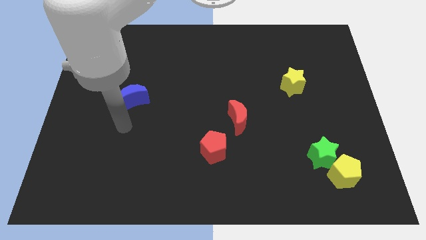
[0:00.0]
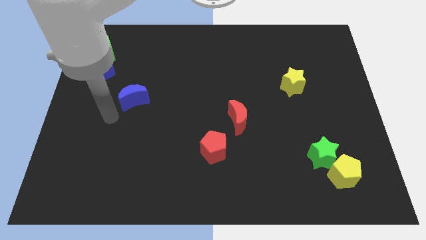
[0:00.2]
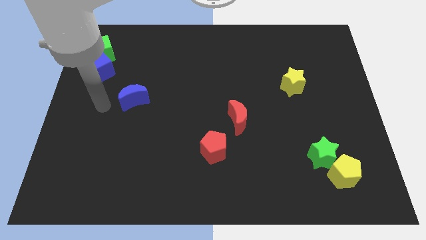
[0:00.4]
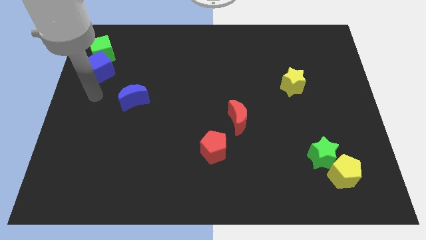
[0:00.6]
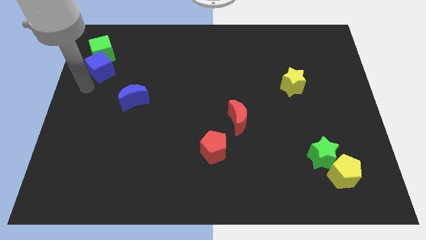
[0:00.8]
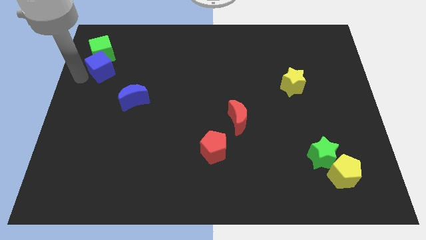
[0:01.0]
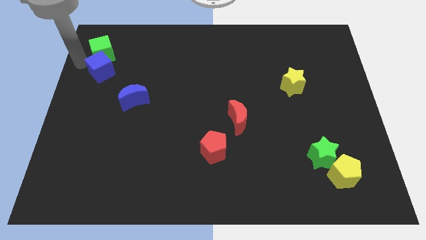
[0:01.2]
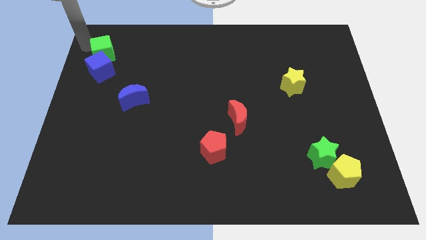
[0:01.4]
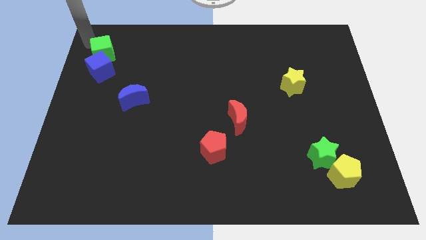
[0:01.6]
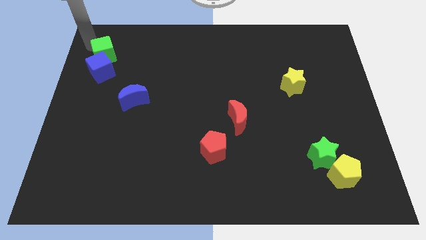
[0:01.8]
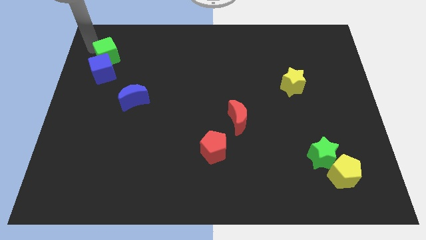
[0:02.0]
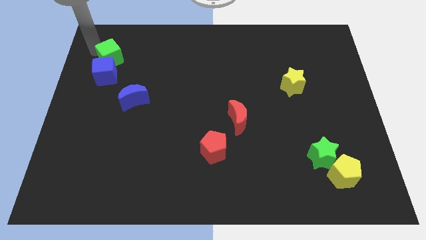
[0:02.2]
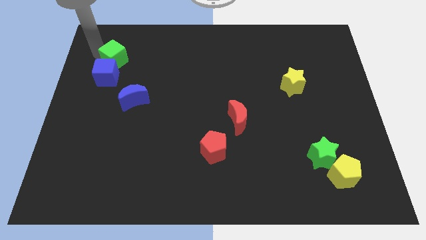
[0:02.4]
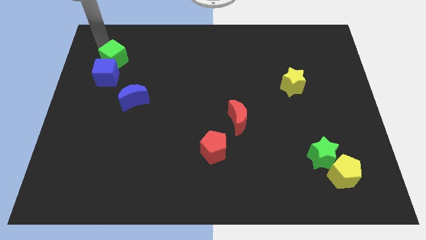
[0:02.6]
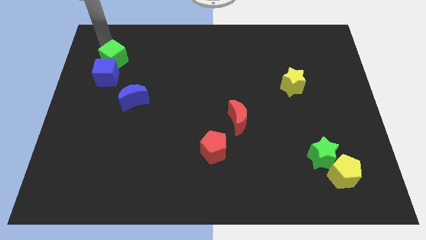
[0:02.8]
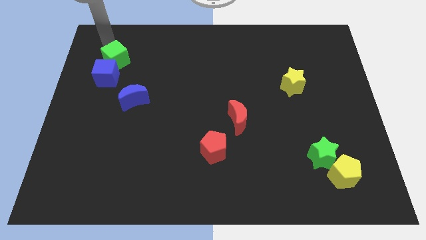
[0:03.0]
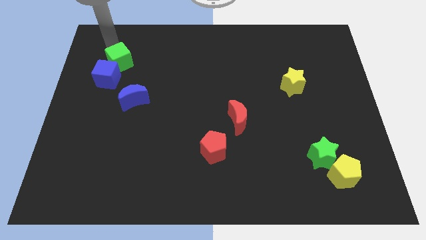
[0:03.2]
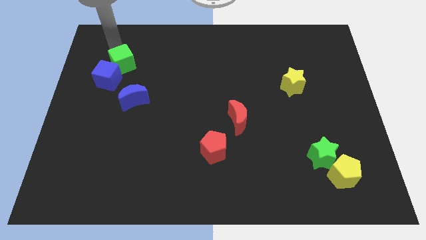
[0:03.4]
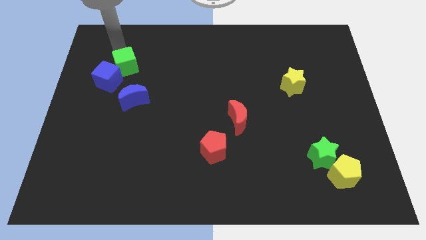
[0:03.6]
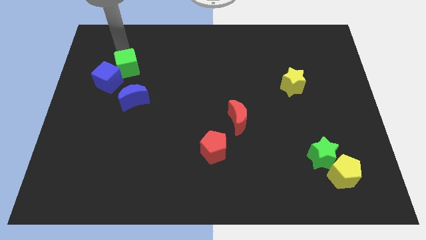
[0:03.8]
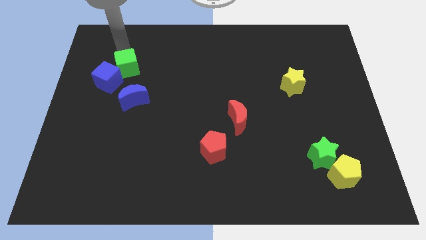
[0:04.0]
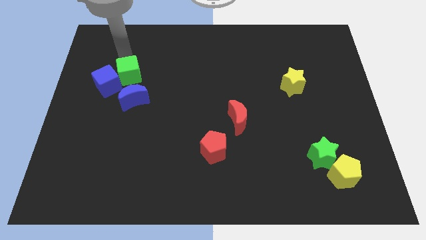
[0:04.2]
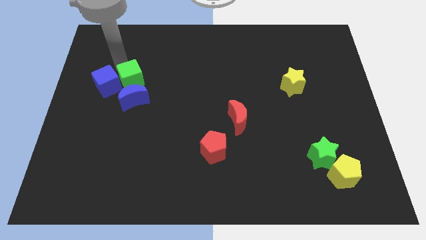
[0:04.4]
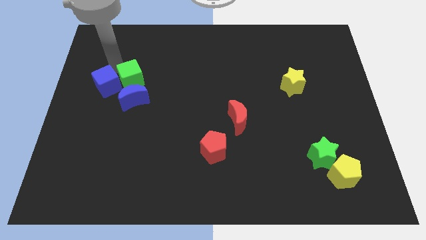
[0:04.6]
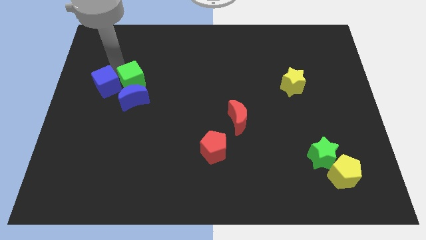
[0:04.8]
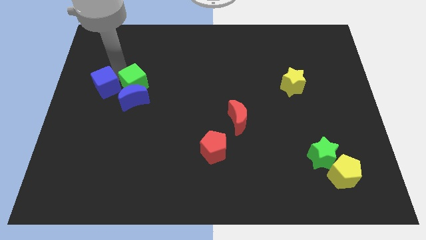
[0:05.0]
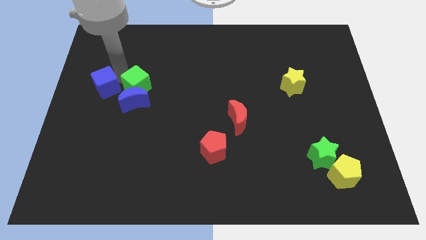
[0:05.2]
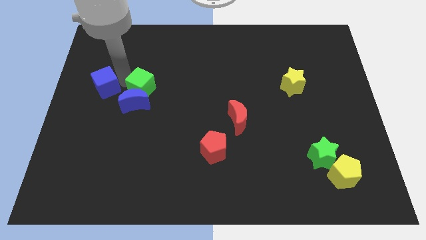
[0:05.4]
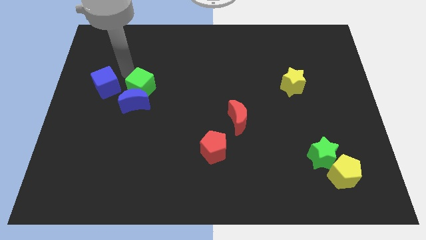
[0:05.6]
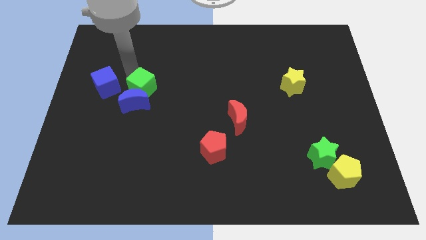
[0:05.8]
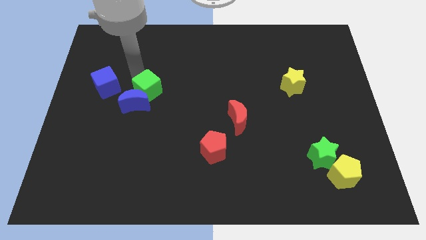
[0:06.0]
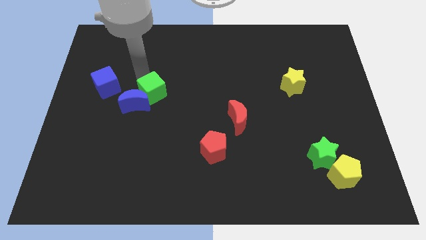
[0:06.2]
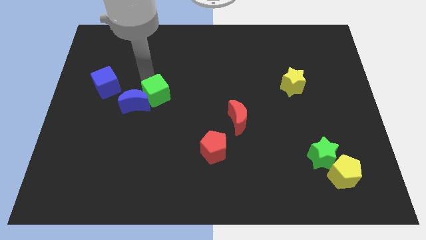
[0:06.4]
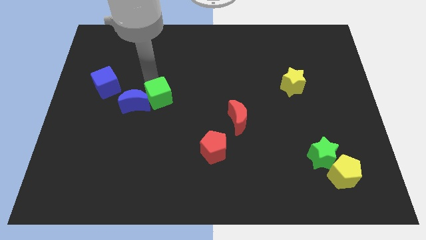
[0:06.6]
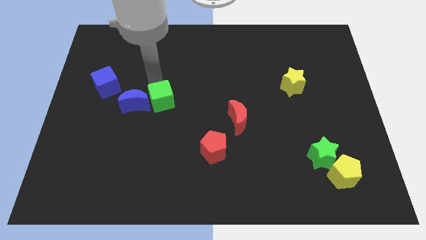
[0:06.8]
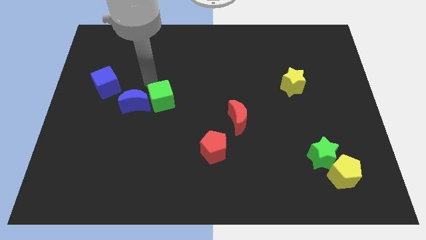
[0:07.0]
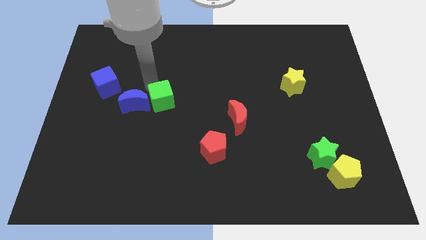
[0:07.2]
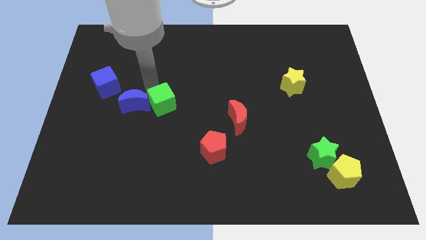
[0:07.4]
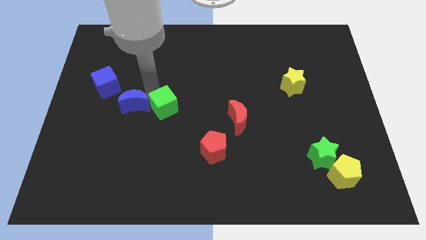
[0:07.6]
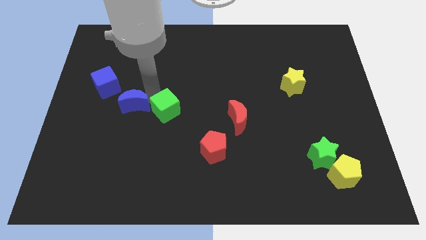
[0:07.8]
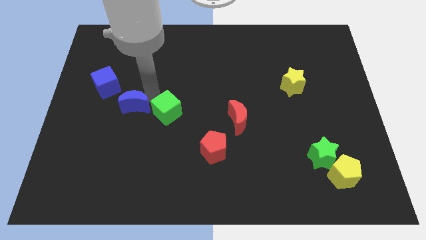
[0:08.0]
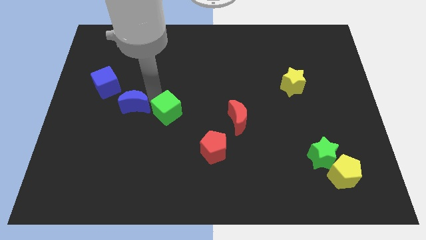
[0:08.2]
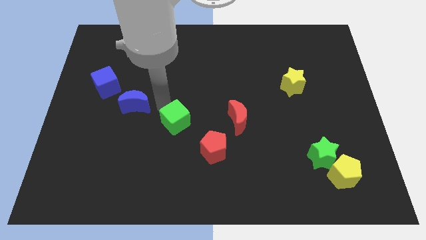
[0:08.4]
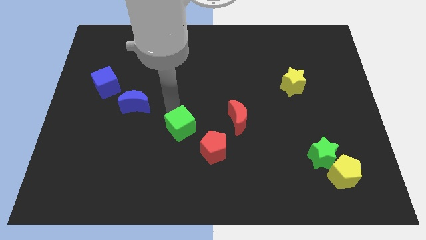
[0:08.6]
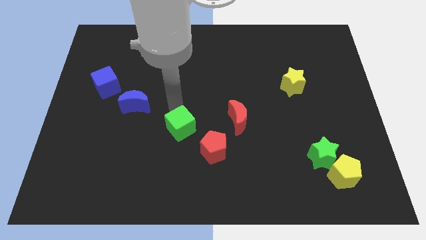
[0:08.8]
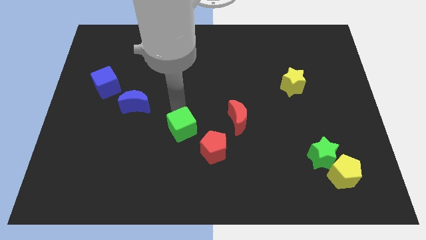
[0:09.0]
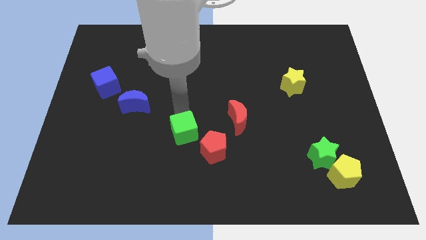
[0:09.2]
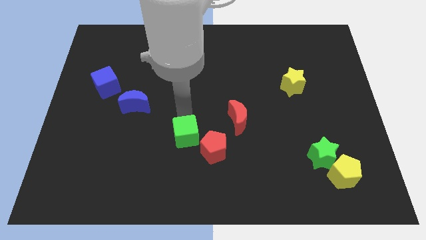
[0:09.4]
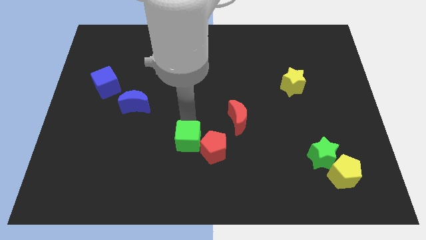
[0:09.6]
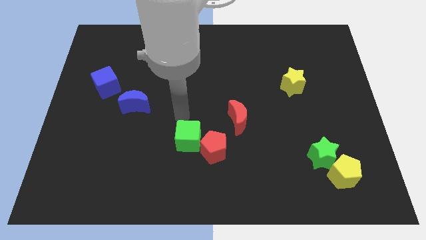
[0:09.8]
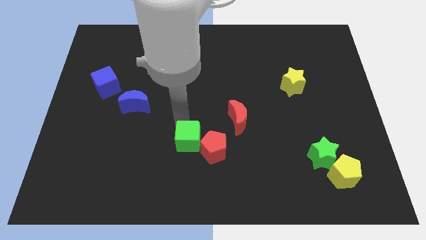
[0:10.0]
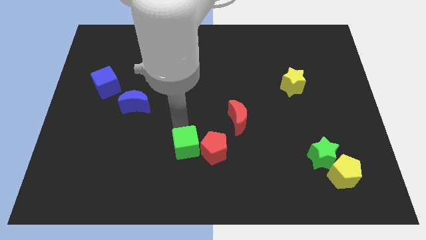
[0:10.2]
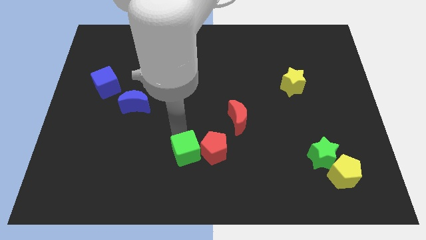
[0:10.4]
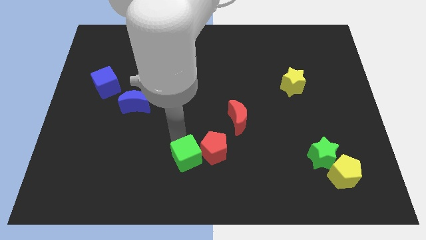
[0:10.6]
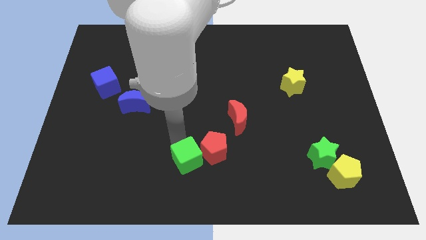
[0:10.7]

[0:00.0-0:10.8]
slide the green cube to the bottom

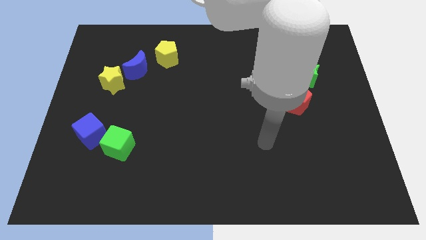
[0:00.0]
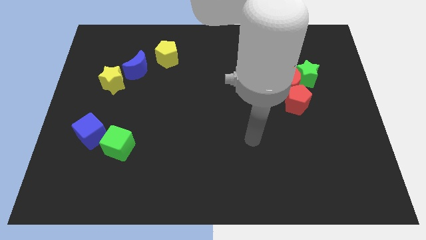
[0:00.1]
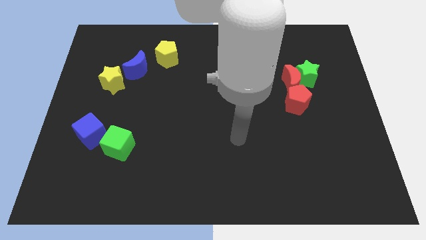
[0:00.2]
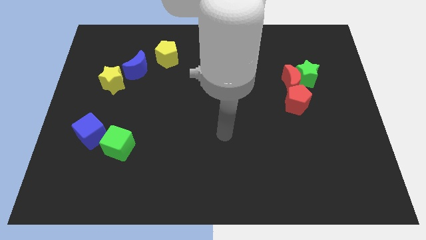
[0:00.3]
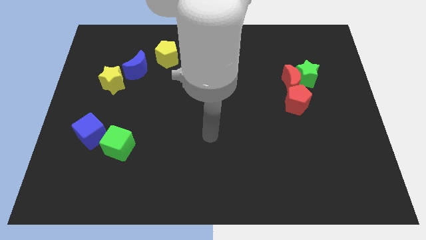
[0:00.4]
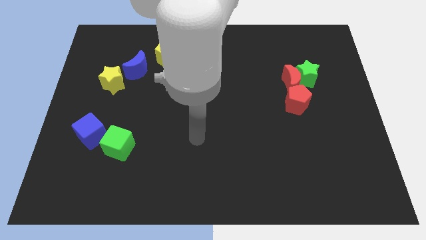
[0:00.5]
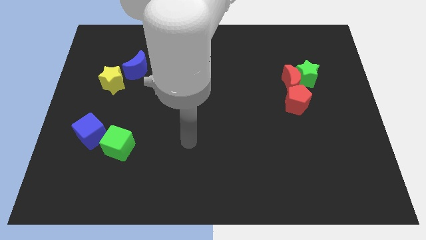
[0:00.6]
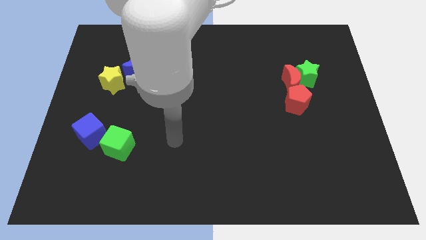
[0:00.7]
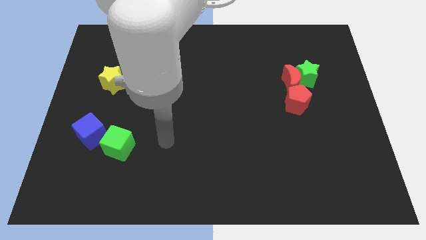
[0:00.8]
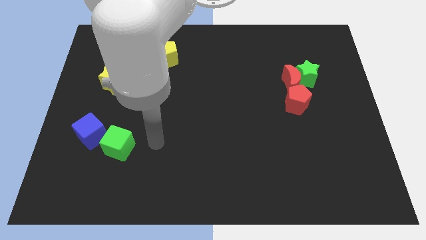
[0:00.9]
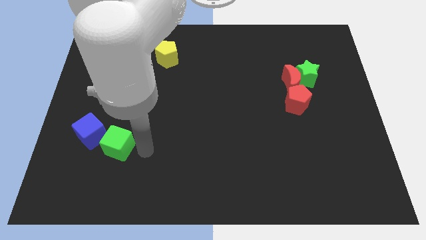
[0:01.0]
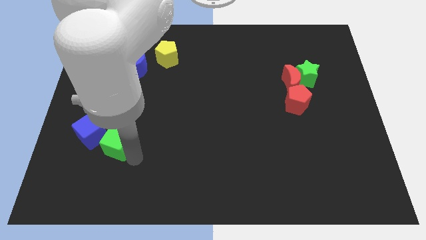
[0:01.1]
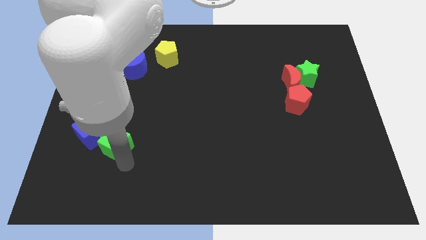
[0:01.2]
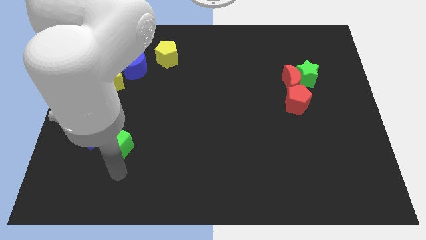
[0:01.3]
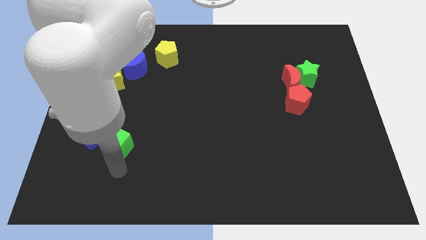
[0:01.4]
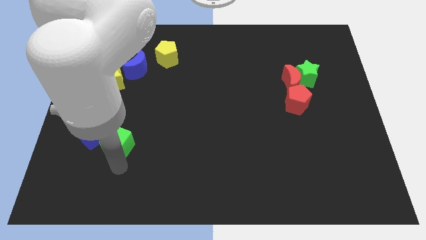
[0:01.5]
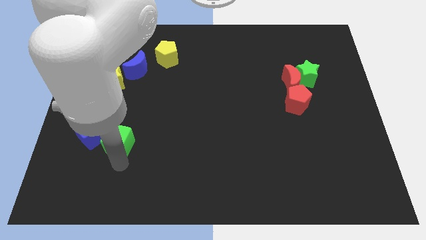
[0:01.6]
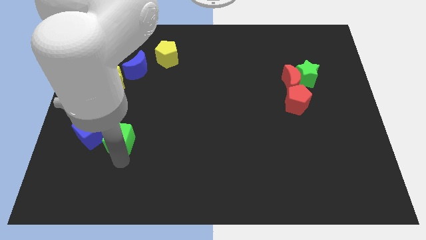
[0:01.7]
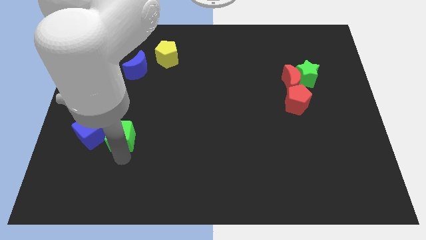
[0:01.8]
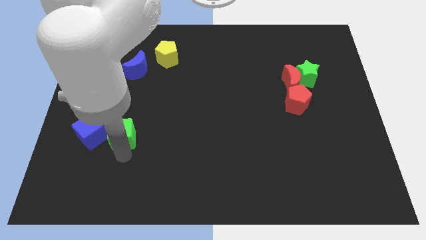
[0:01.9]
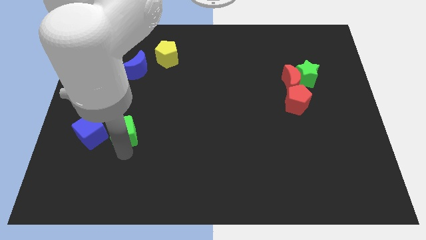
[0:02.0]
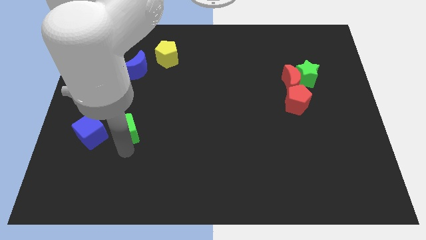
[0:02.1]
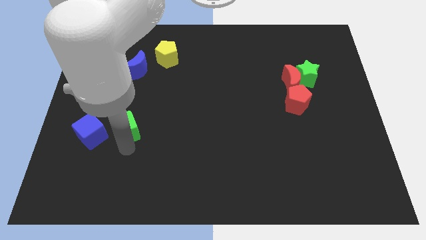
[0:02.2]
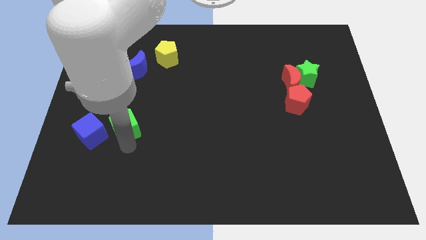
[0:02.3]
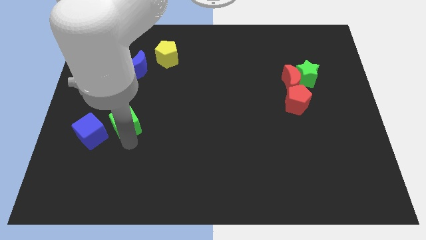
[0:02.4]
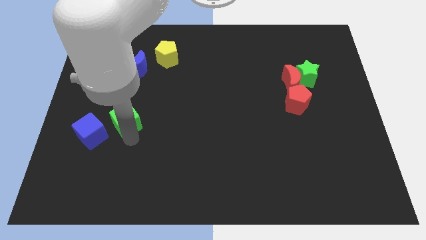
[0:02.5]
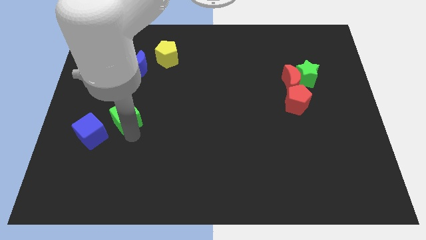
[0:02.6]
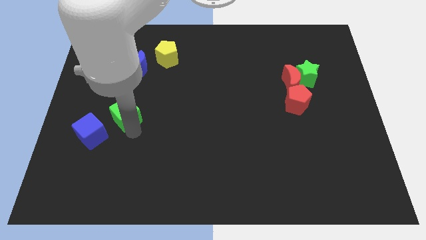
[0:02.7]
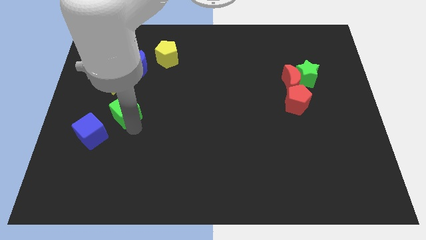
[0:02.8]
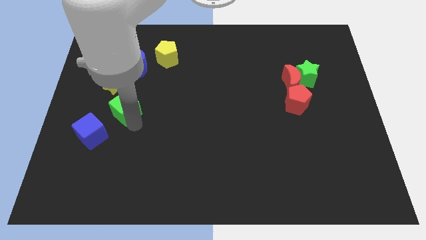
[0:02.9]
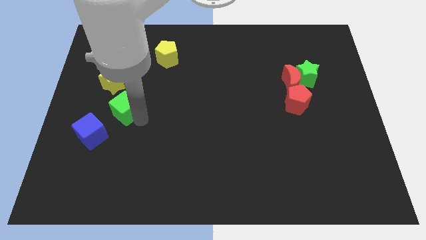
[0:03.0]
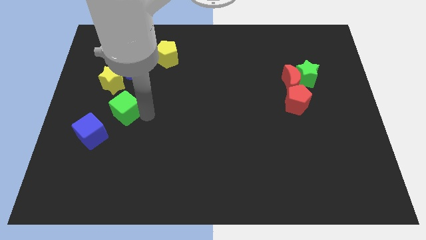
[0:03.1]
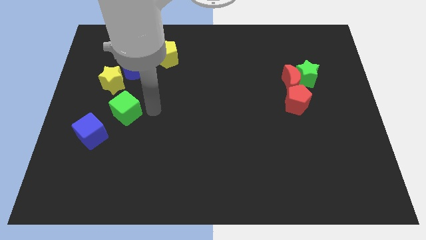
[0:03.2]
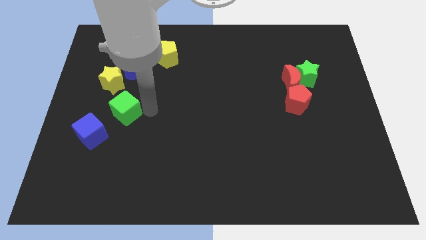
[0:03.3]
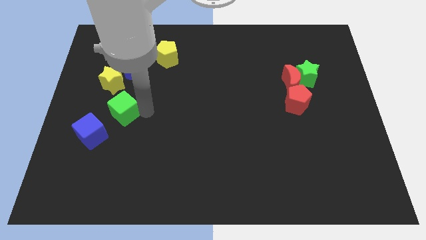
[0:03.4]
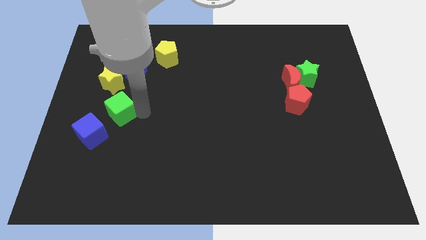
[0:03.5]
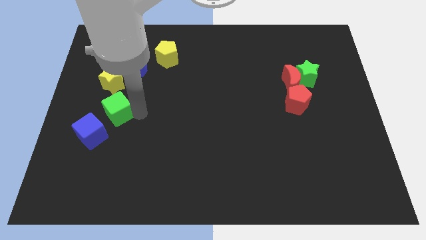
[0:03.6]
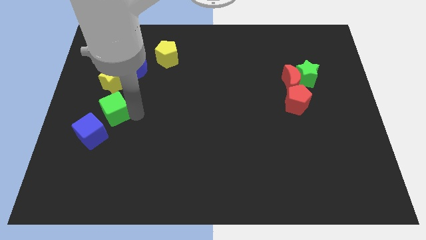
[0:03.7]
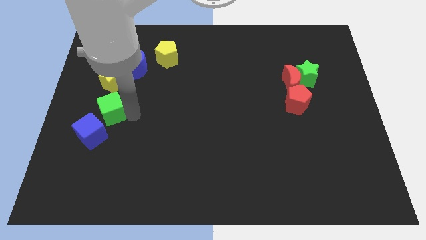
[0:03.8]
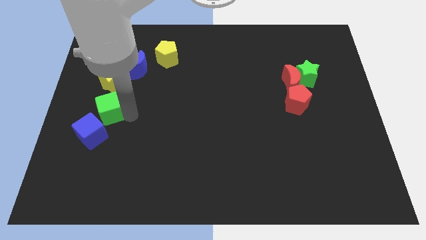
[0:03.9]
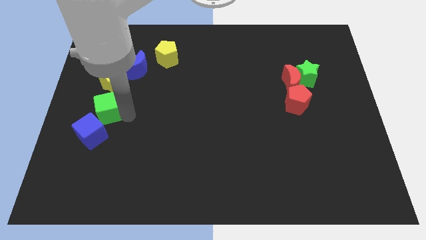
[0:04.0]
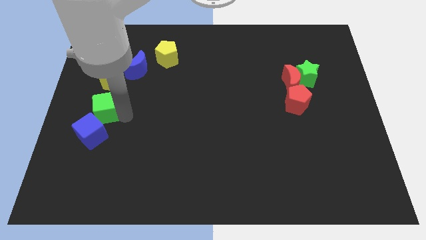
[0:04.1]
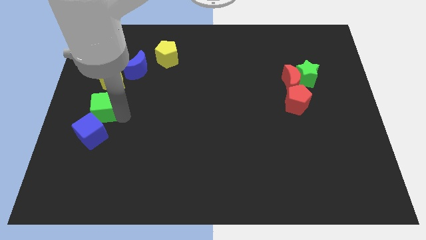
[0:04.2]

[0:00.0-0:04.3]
put the green cube to the center left
